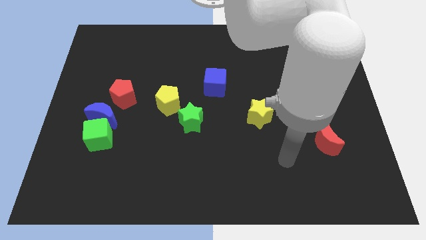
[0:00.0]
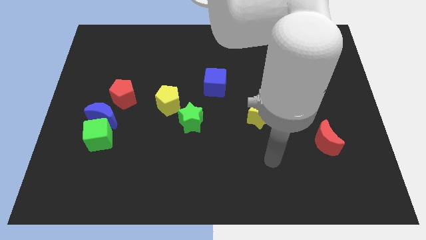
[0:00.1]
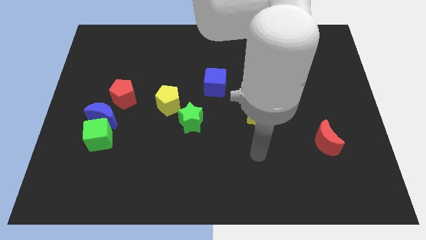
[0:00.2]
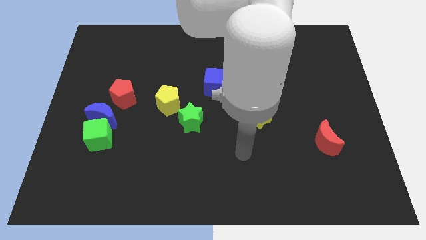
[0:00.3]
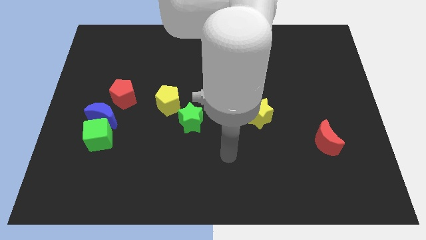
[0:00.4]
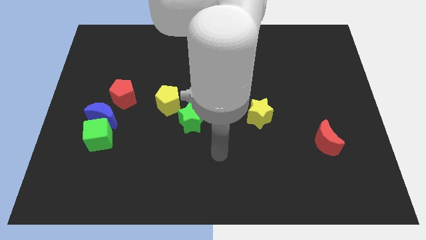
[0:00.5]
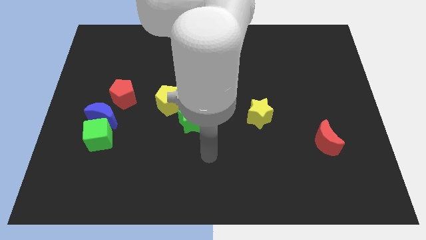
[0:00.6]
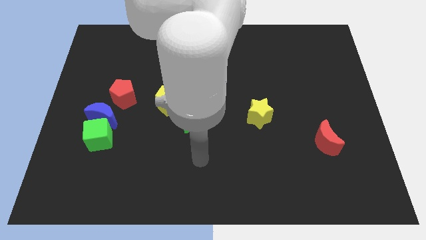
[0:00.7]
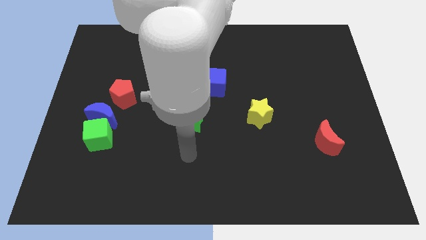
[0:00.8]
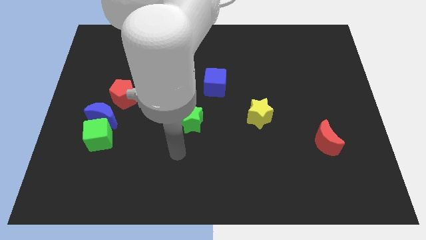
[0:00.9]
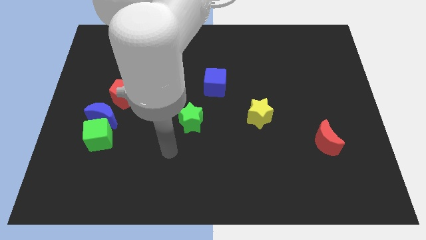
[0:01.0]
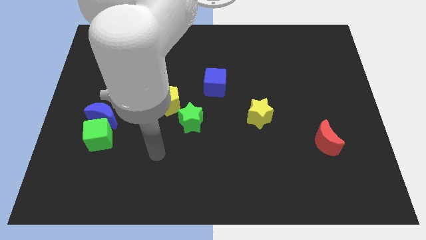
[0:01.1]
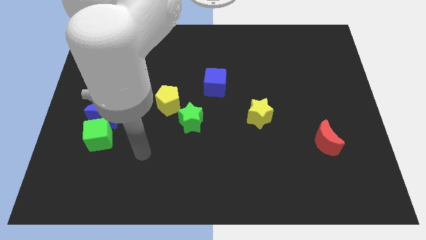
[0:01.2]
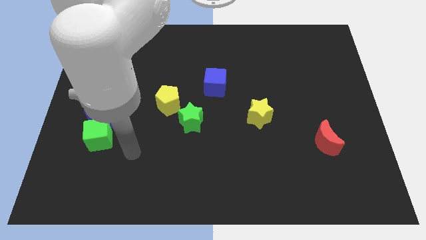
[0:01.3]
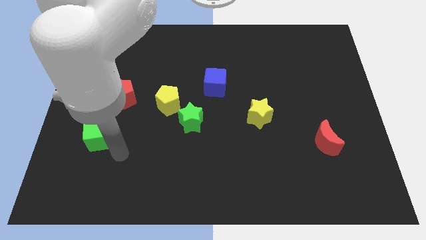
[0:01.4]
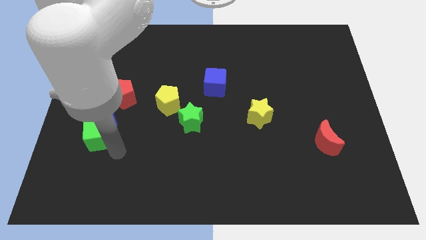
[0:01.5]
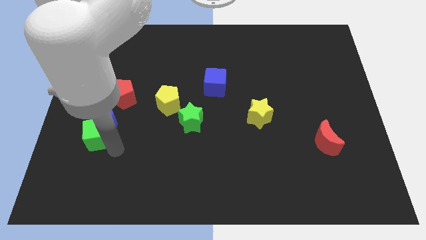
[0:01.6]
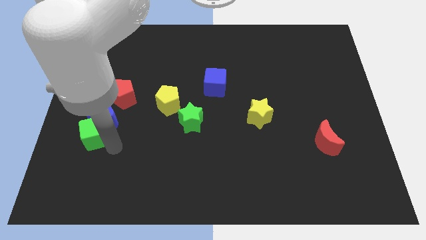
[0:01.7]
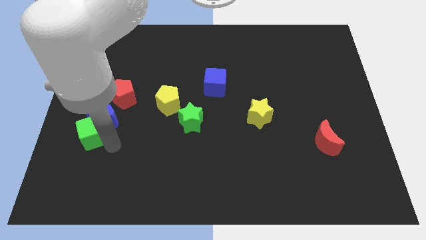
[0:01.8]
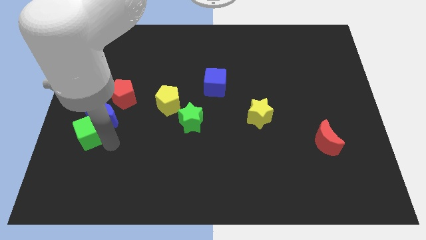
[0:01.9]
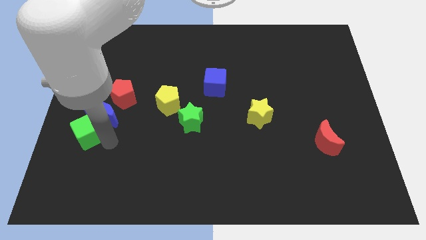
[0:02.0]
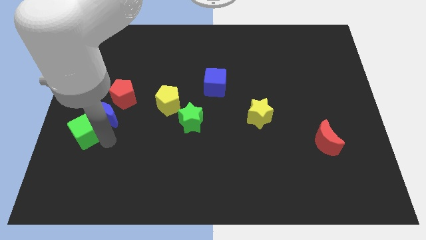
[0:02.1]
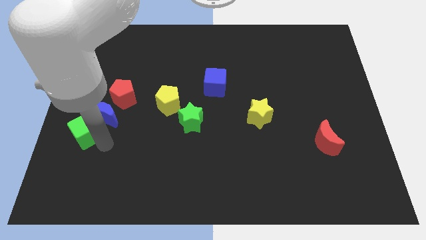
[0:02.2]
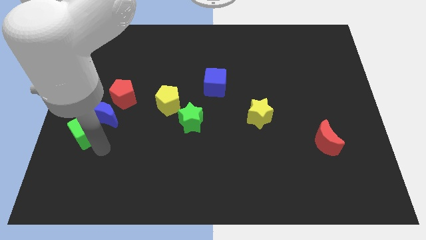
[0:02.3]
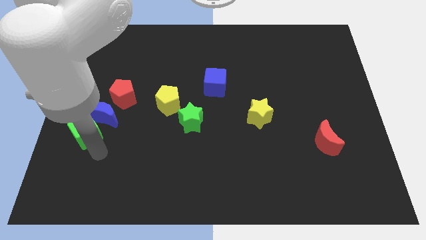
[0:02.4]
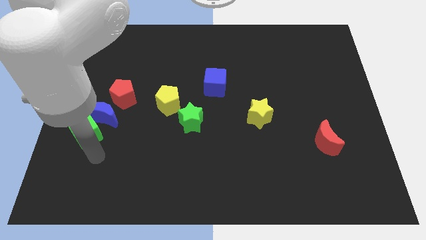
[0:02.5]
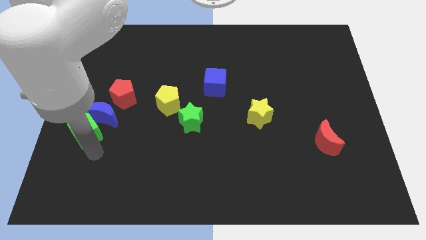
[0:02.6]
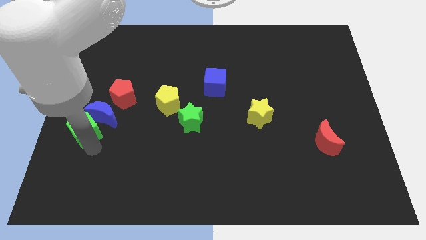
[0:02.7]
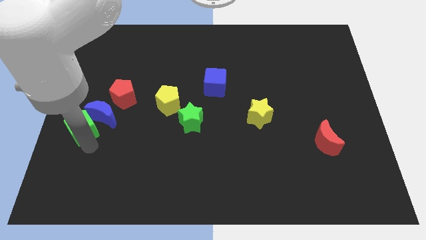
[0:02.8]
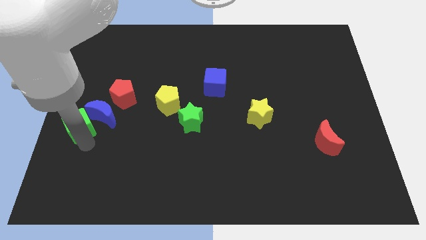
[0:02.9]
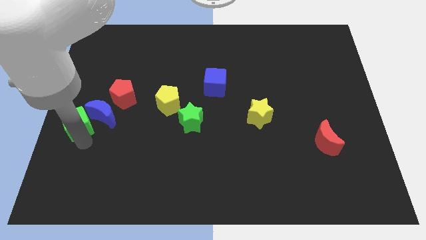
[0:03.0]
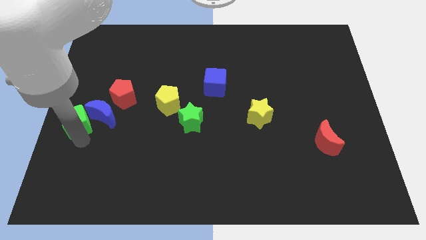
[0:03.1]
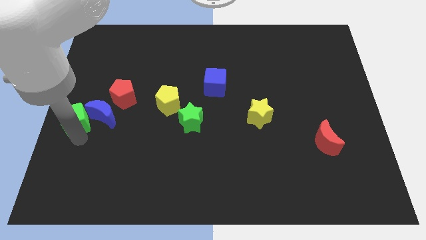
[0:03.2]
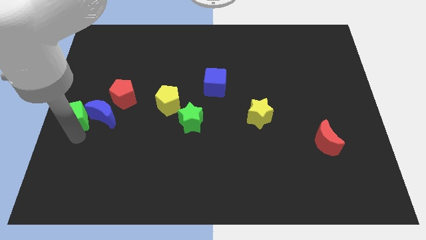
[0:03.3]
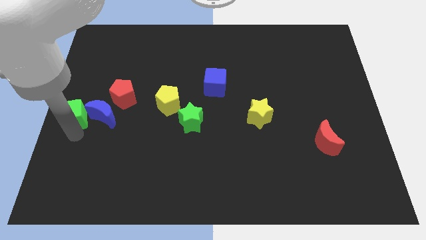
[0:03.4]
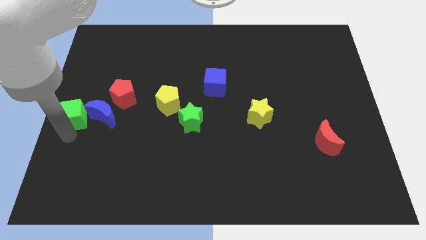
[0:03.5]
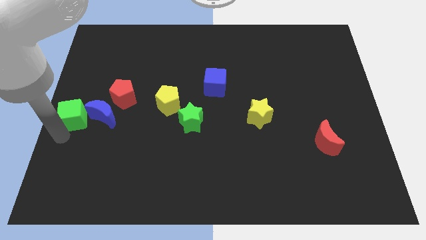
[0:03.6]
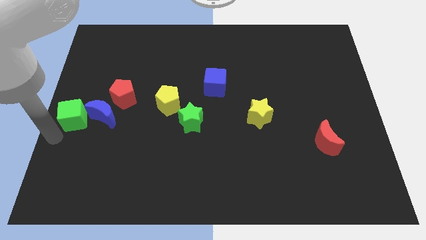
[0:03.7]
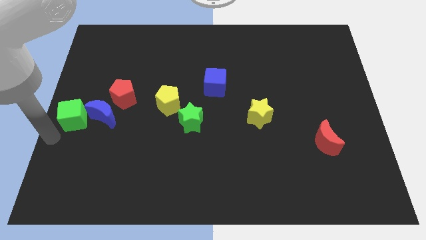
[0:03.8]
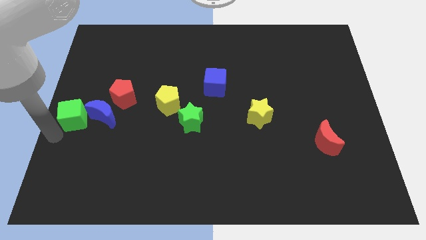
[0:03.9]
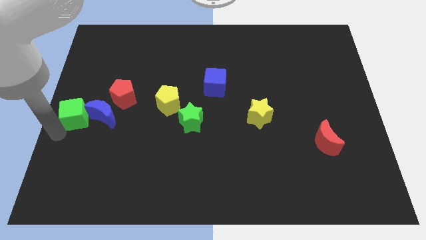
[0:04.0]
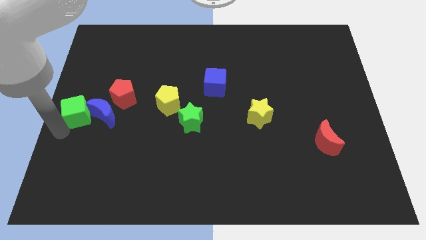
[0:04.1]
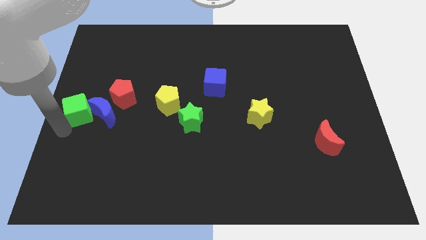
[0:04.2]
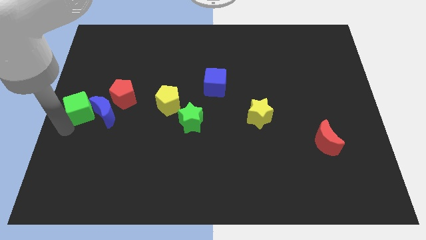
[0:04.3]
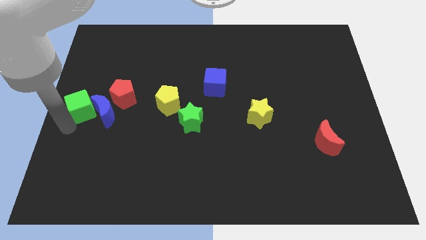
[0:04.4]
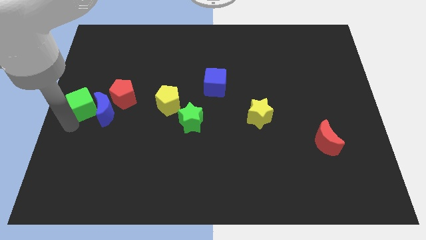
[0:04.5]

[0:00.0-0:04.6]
push the green cube up somewhat

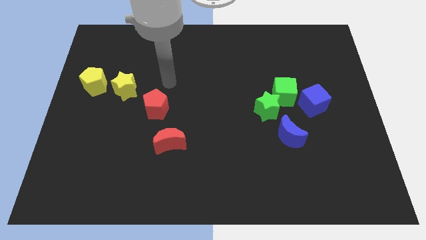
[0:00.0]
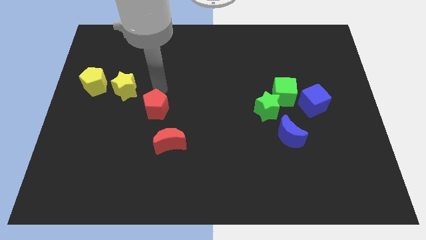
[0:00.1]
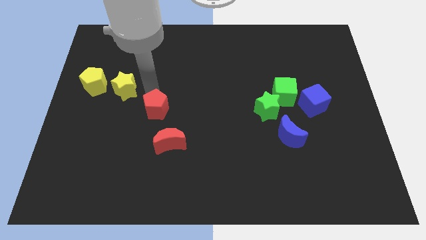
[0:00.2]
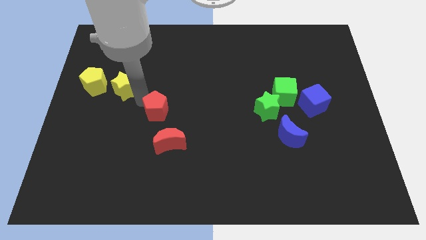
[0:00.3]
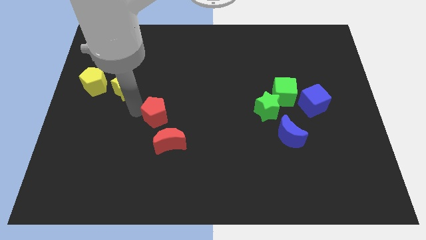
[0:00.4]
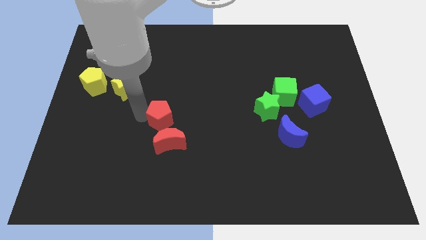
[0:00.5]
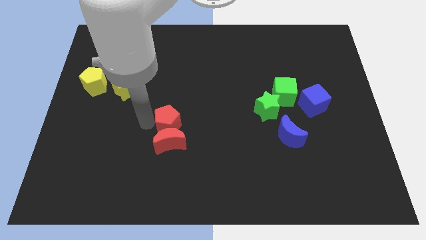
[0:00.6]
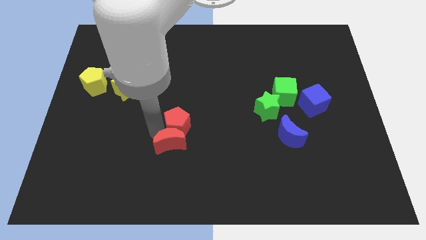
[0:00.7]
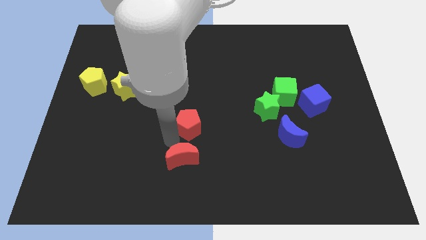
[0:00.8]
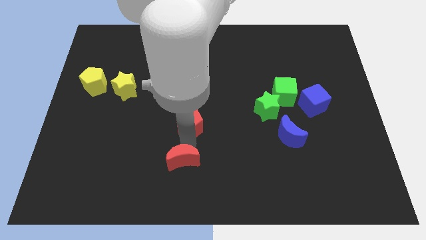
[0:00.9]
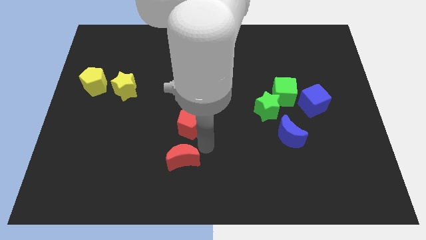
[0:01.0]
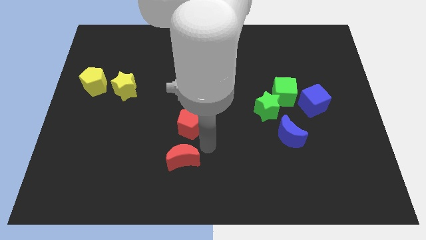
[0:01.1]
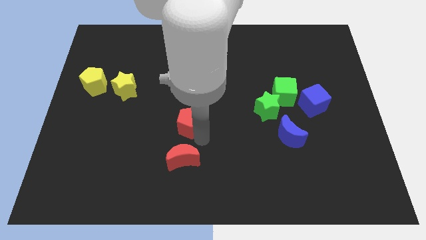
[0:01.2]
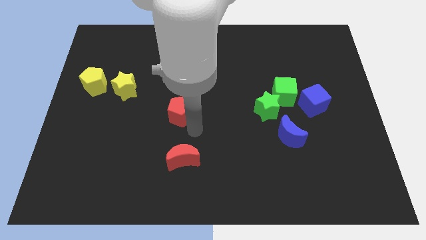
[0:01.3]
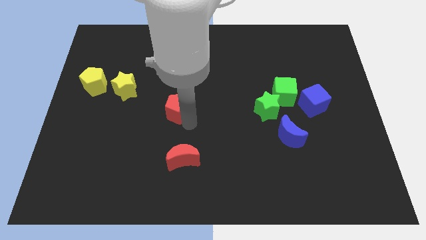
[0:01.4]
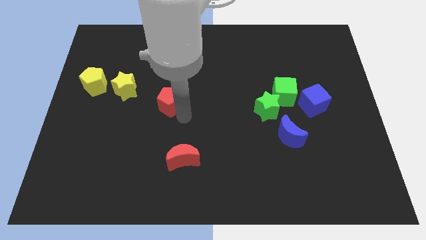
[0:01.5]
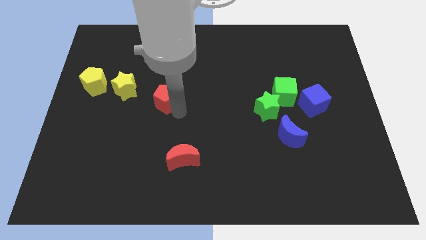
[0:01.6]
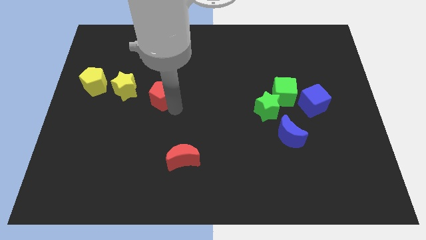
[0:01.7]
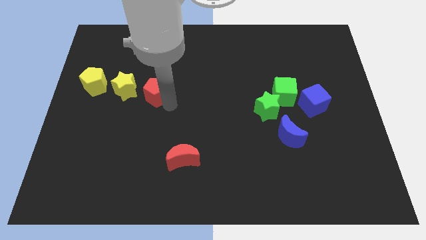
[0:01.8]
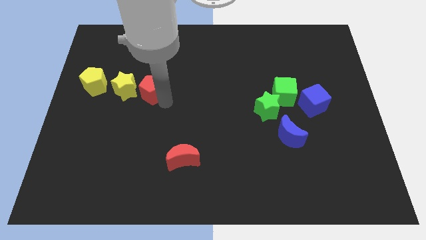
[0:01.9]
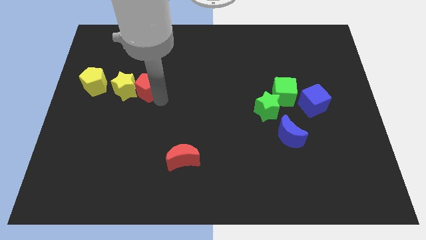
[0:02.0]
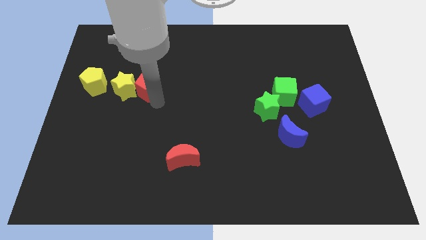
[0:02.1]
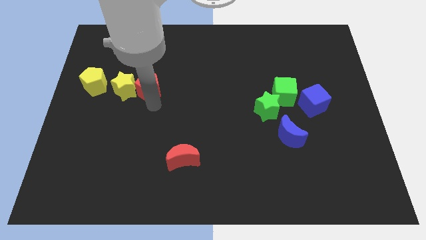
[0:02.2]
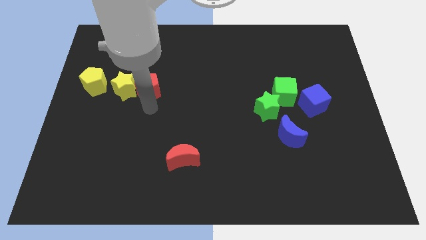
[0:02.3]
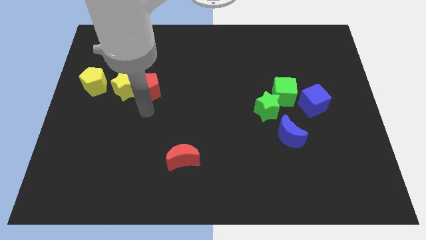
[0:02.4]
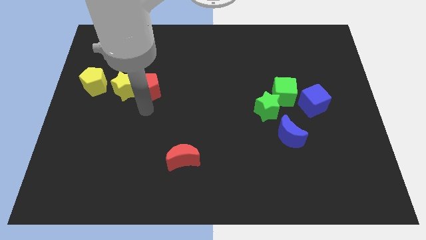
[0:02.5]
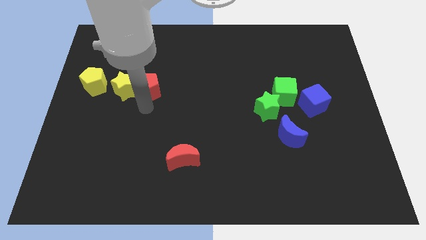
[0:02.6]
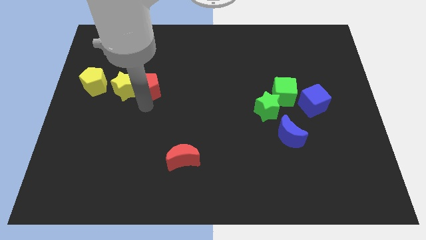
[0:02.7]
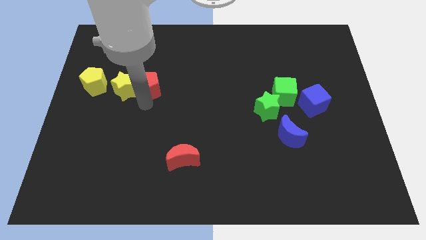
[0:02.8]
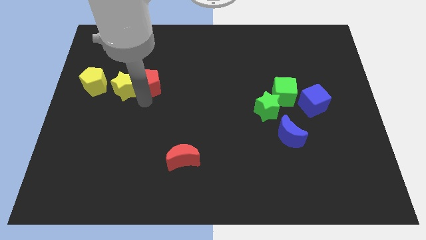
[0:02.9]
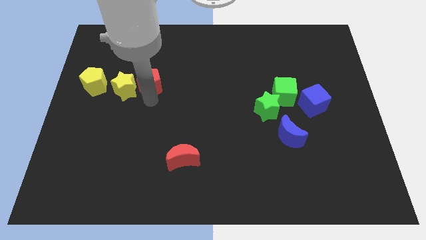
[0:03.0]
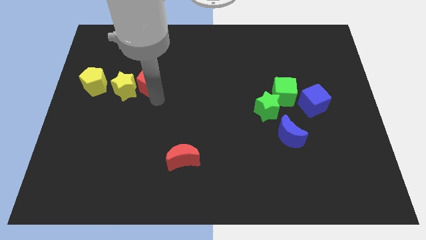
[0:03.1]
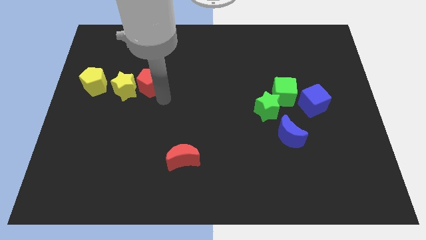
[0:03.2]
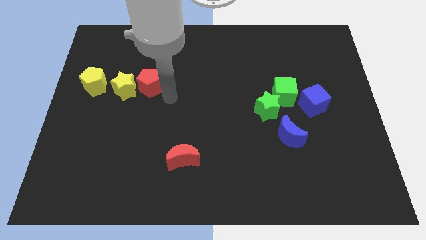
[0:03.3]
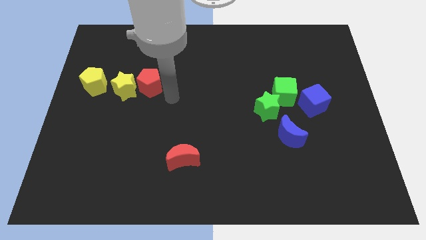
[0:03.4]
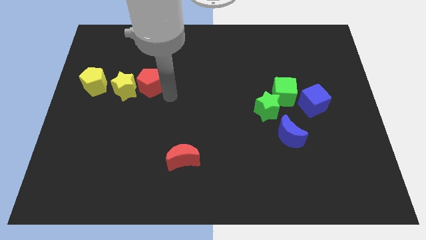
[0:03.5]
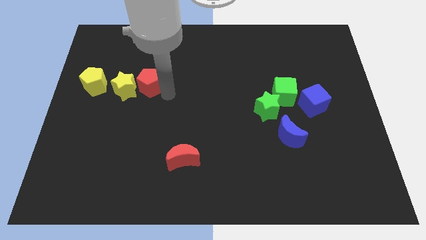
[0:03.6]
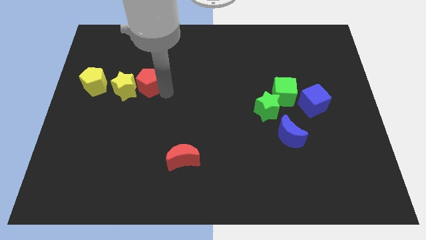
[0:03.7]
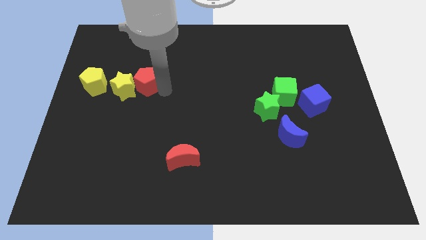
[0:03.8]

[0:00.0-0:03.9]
move the red pentagon up and to the left diagonally a little
